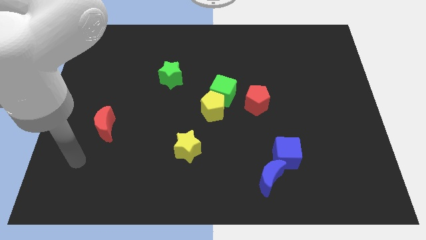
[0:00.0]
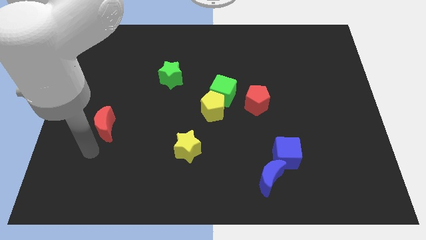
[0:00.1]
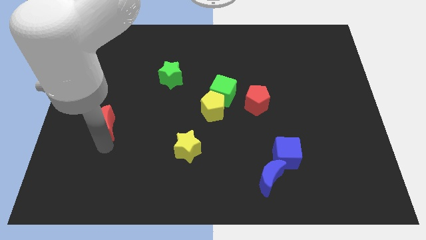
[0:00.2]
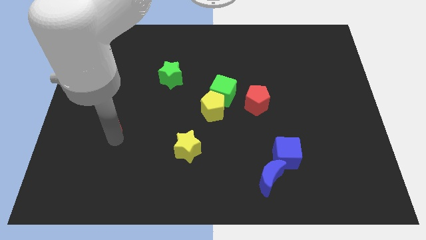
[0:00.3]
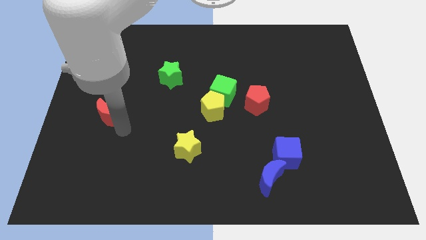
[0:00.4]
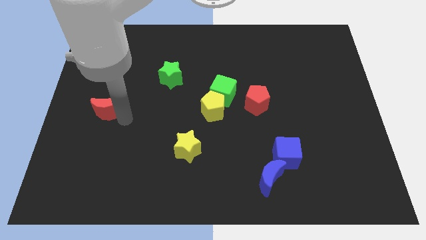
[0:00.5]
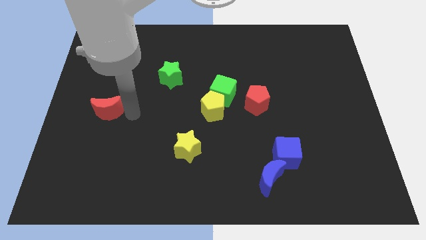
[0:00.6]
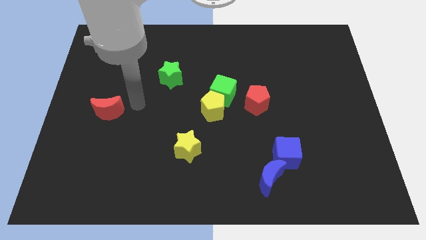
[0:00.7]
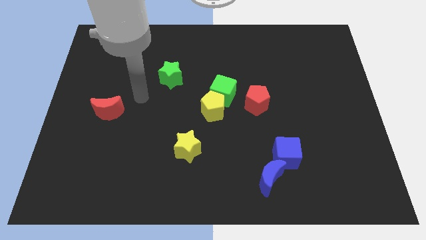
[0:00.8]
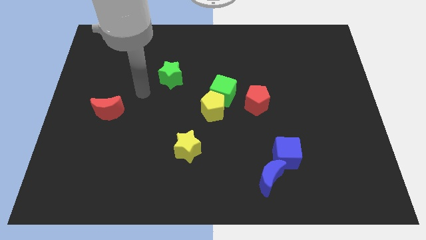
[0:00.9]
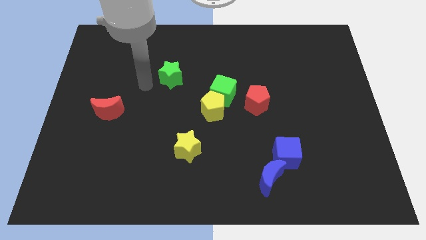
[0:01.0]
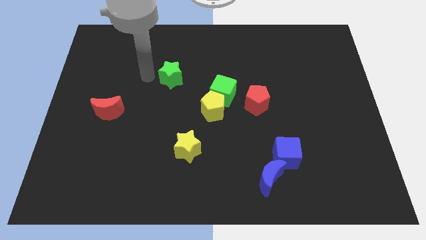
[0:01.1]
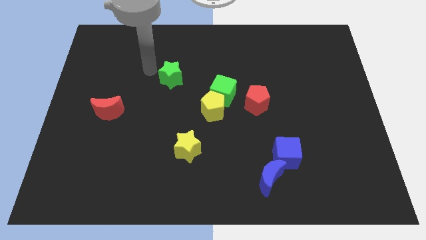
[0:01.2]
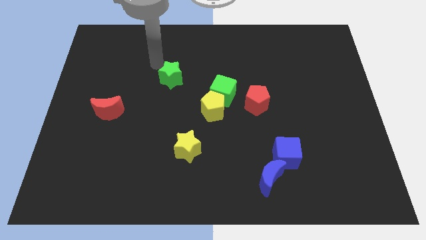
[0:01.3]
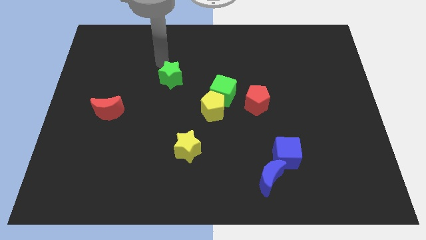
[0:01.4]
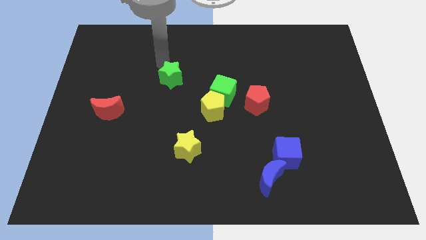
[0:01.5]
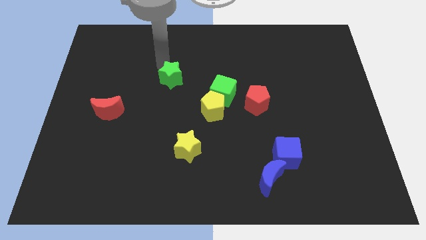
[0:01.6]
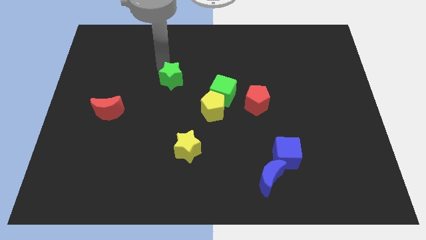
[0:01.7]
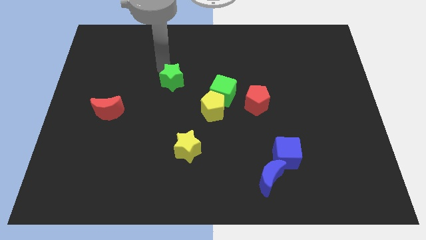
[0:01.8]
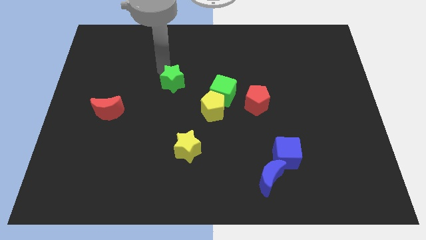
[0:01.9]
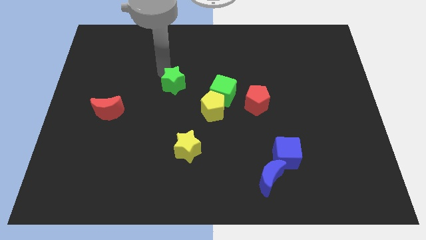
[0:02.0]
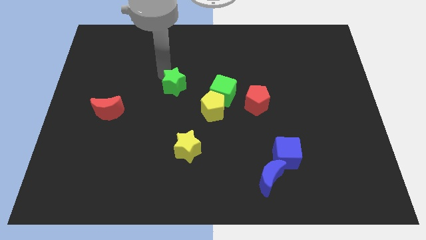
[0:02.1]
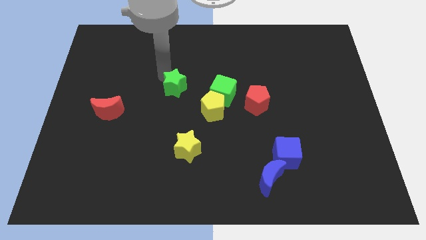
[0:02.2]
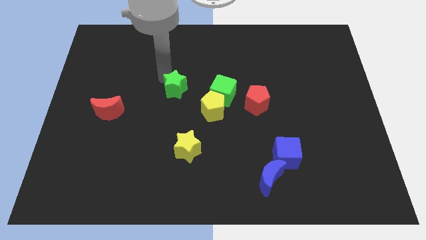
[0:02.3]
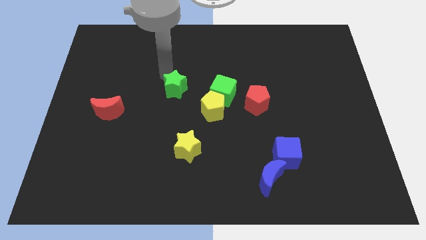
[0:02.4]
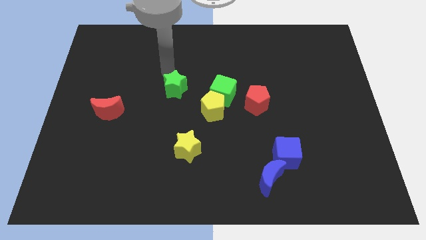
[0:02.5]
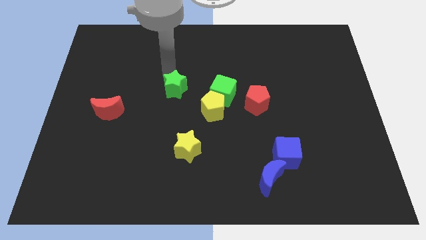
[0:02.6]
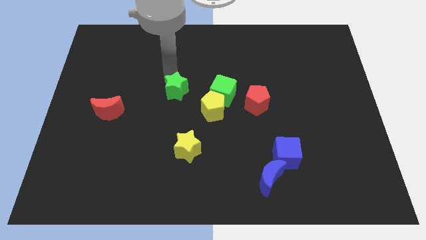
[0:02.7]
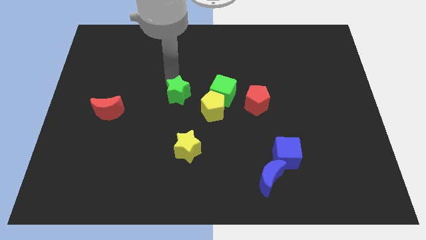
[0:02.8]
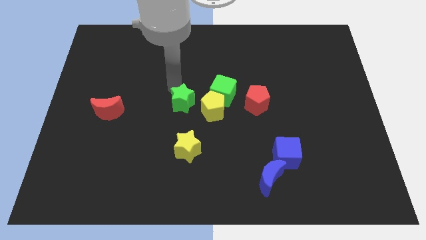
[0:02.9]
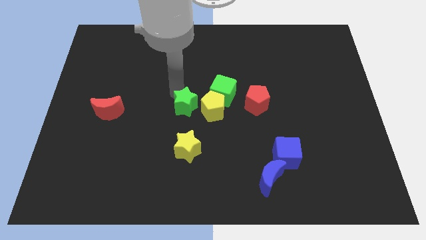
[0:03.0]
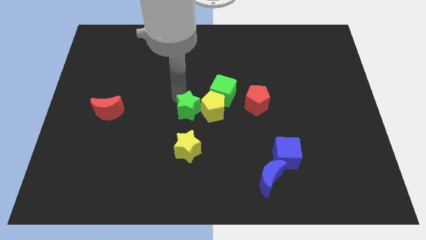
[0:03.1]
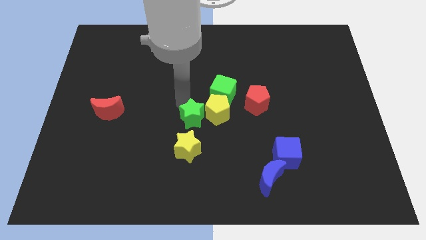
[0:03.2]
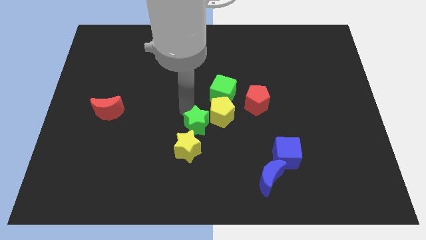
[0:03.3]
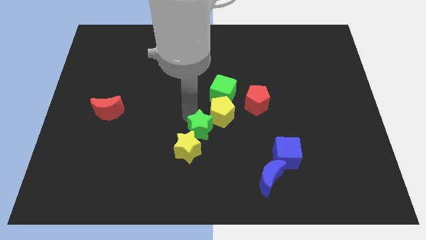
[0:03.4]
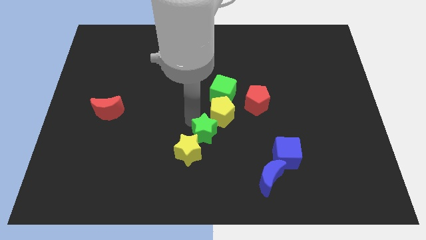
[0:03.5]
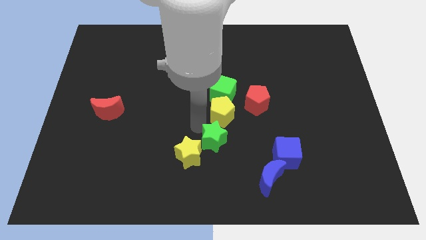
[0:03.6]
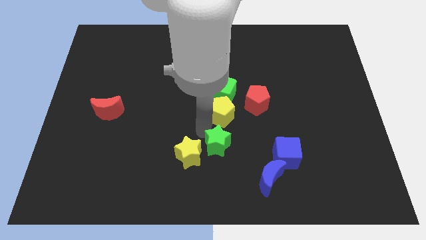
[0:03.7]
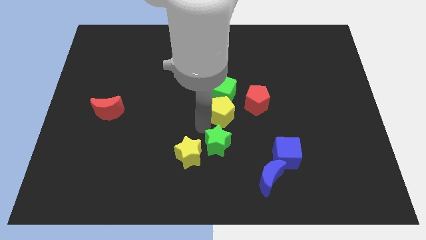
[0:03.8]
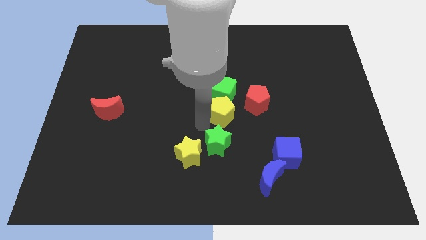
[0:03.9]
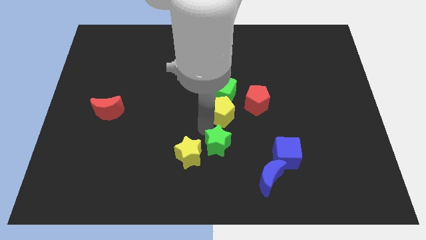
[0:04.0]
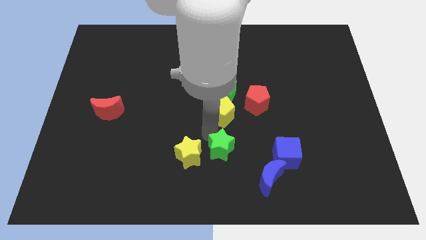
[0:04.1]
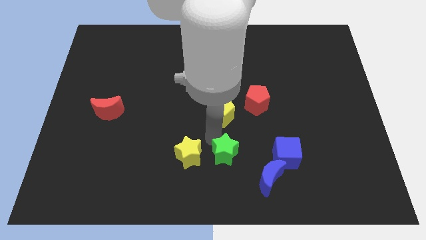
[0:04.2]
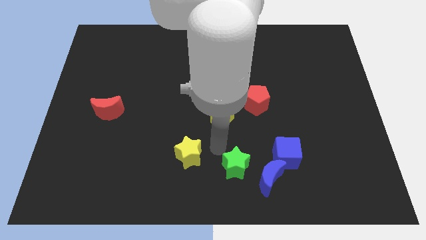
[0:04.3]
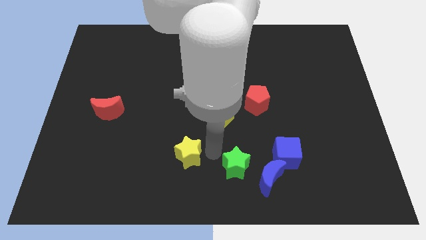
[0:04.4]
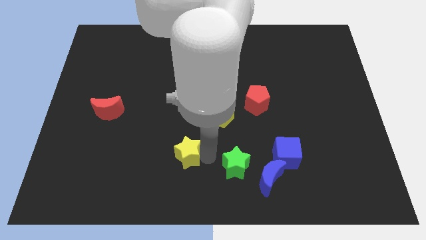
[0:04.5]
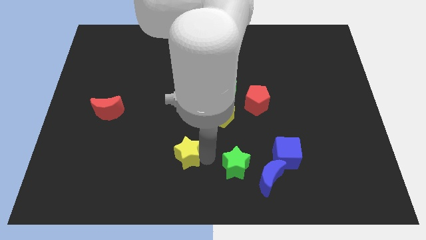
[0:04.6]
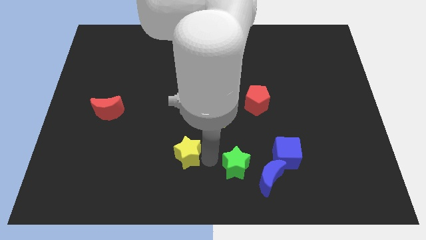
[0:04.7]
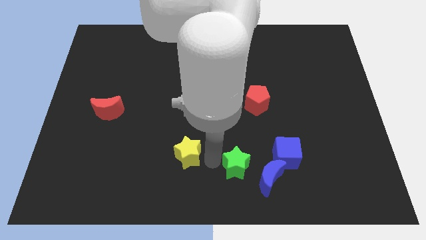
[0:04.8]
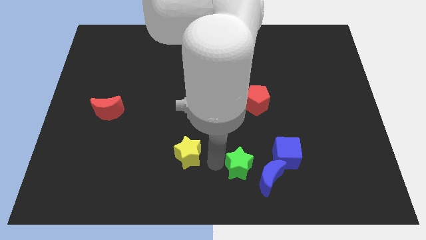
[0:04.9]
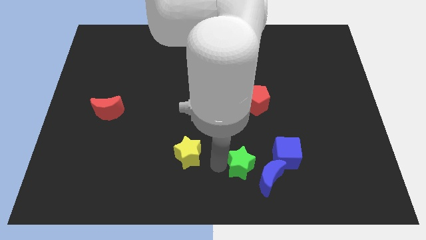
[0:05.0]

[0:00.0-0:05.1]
push the green star to the blue moon

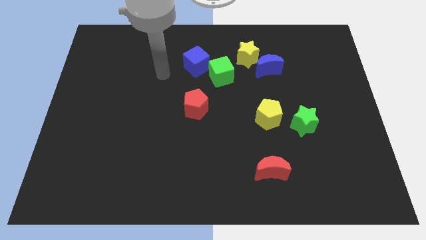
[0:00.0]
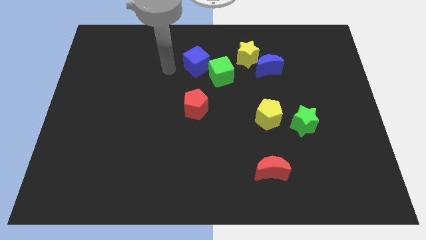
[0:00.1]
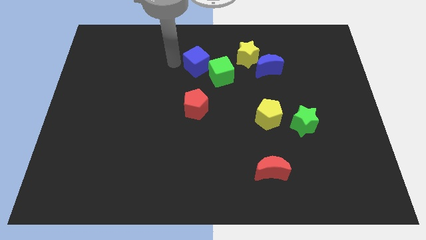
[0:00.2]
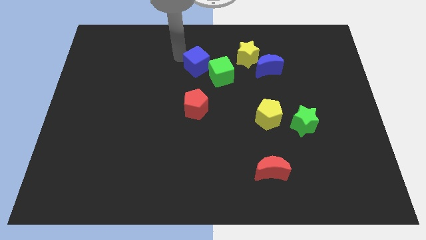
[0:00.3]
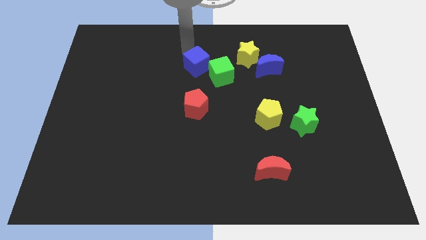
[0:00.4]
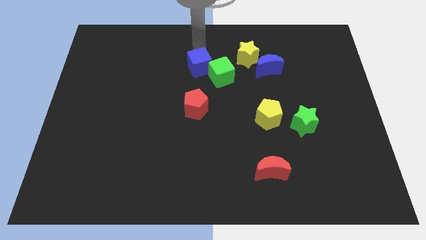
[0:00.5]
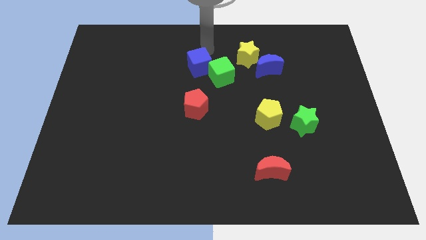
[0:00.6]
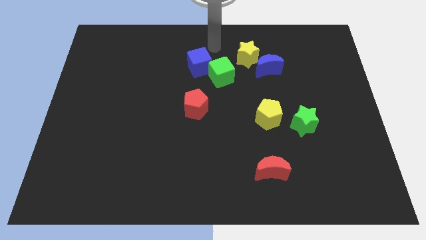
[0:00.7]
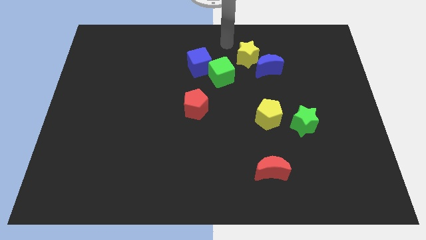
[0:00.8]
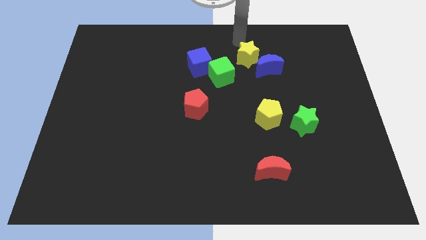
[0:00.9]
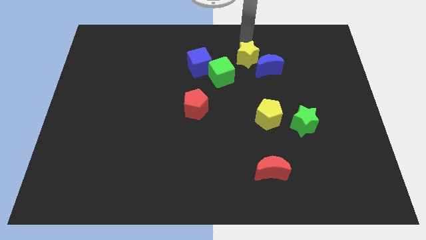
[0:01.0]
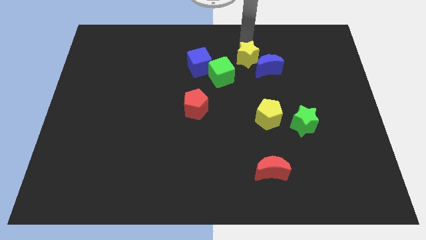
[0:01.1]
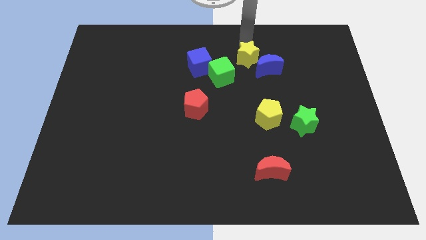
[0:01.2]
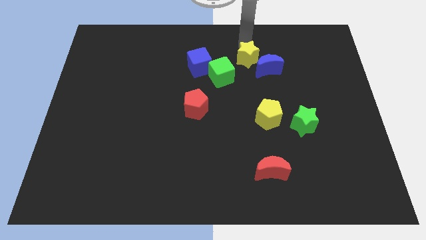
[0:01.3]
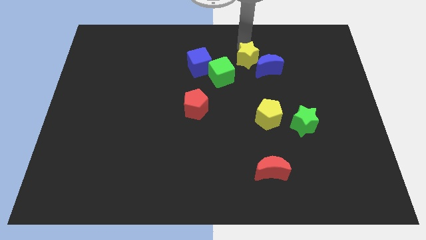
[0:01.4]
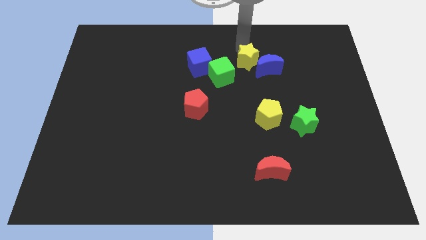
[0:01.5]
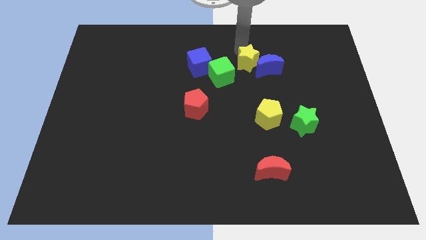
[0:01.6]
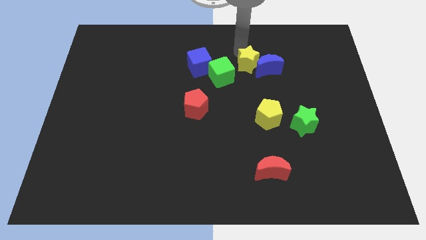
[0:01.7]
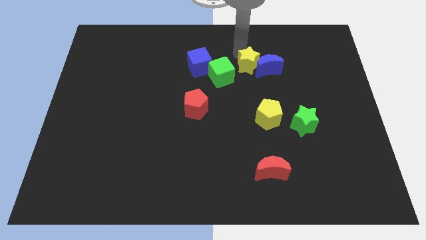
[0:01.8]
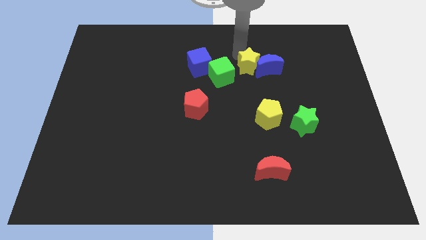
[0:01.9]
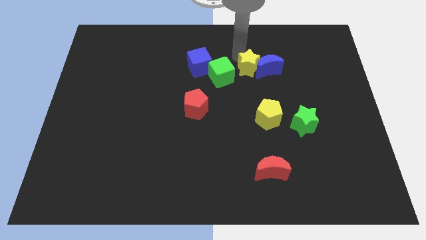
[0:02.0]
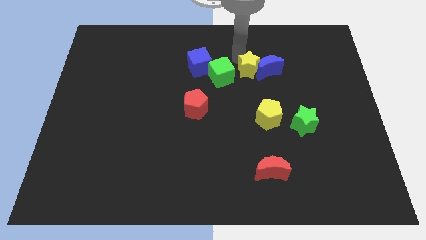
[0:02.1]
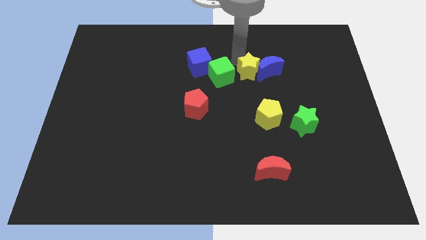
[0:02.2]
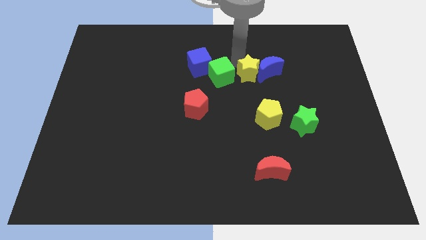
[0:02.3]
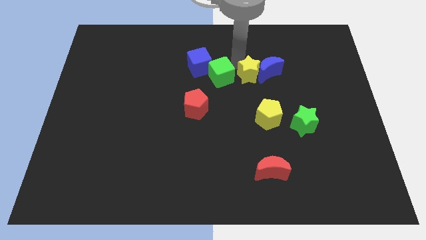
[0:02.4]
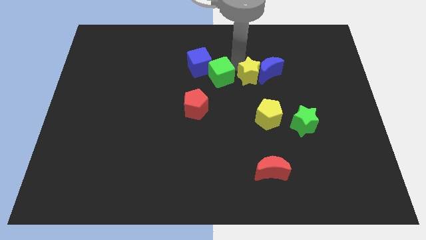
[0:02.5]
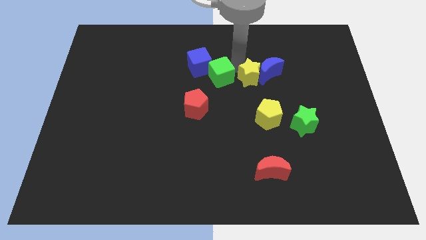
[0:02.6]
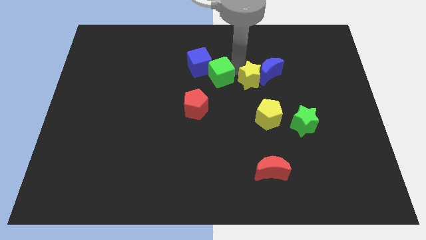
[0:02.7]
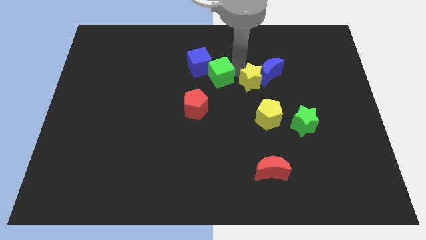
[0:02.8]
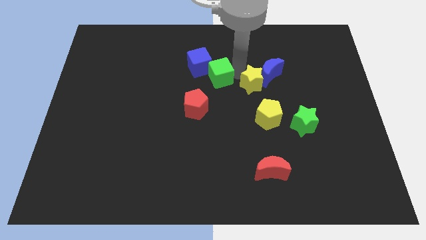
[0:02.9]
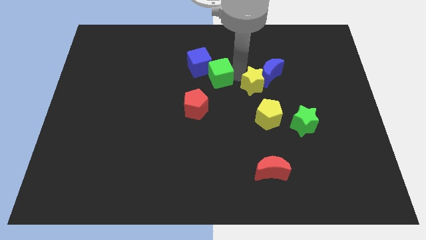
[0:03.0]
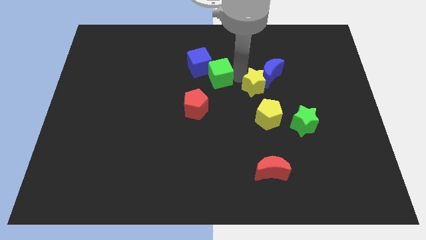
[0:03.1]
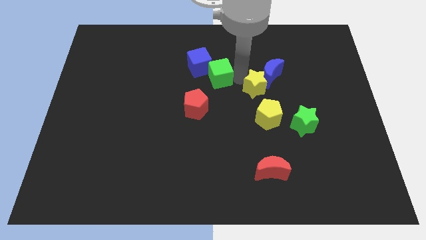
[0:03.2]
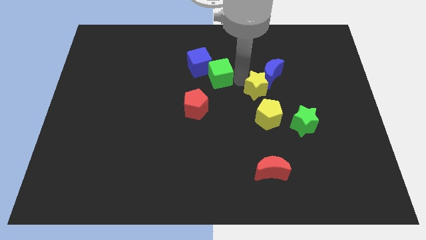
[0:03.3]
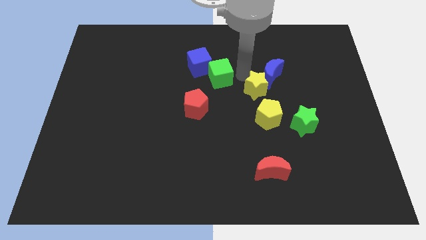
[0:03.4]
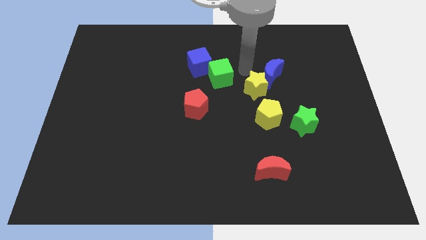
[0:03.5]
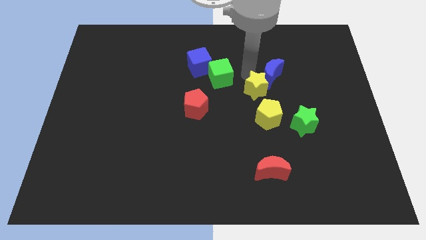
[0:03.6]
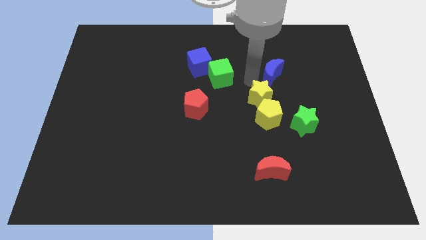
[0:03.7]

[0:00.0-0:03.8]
put the yellow star towards the yellow pentagon
